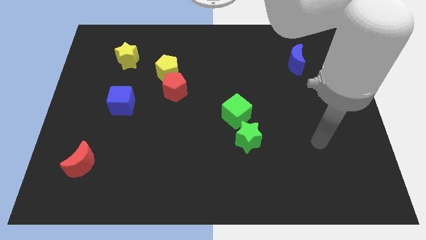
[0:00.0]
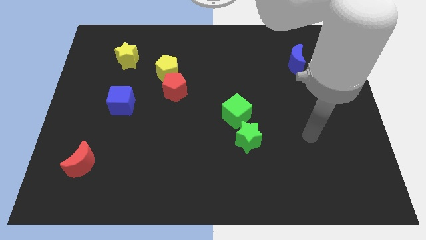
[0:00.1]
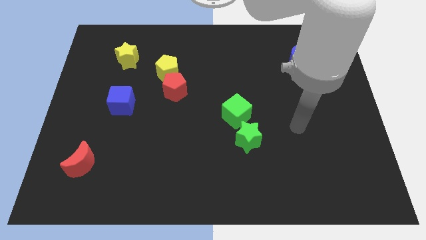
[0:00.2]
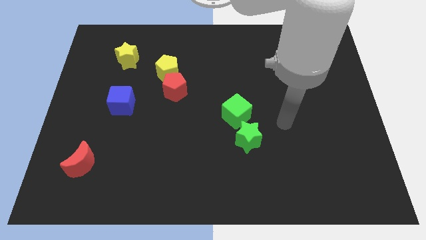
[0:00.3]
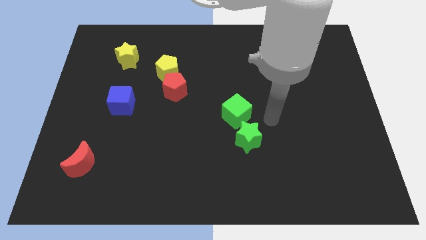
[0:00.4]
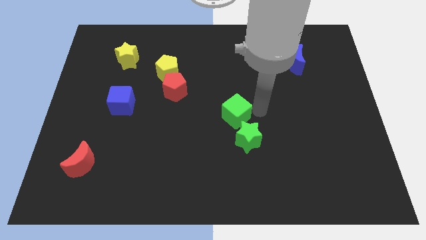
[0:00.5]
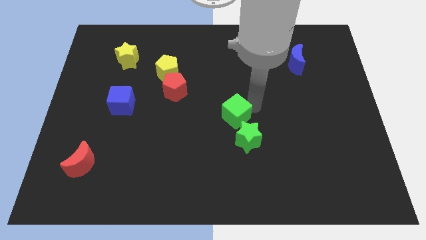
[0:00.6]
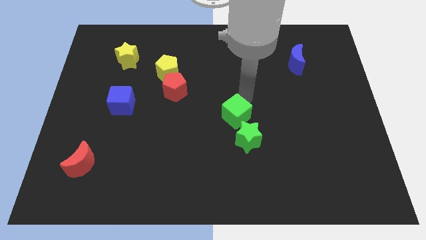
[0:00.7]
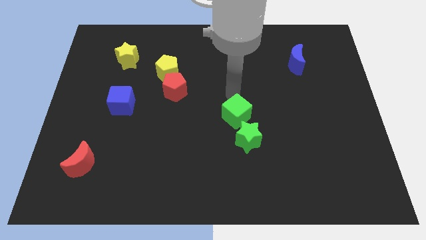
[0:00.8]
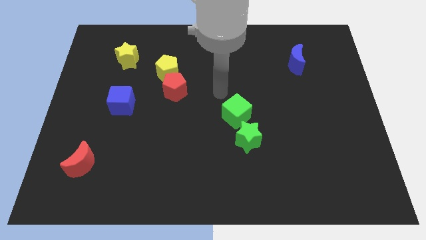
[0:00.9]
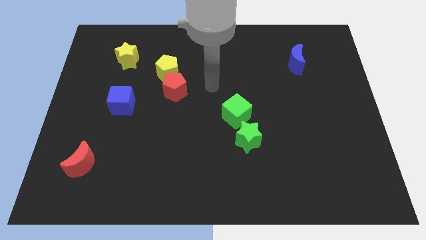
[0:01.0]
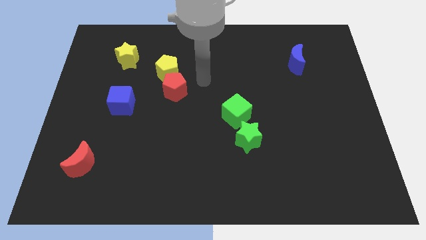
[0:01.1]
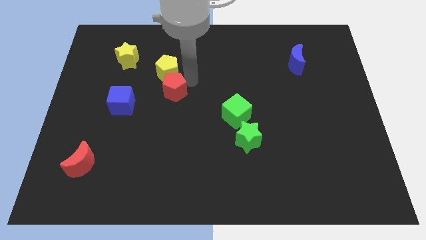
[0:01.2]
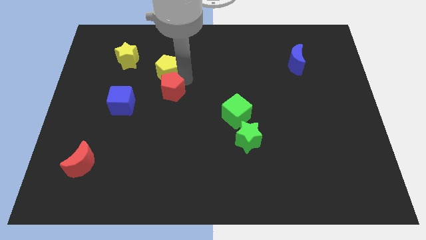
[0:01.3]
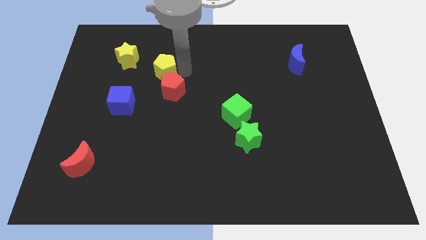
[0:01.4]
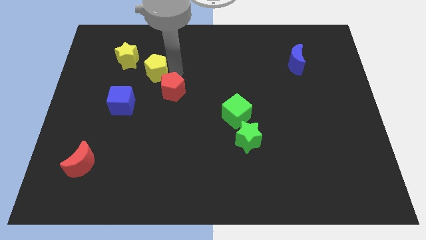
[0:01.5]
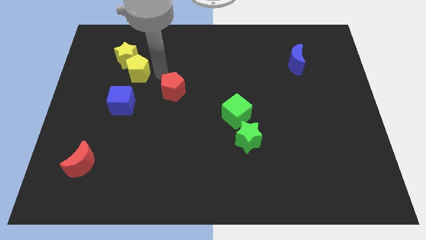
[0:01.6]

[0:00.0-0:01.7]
pull the red pentagon apart from the yellow pentagon

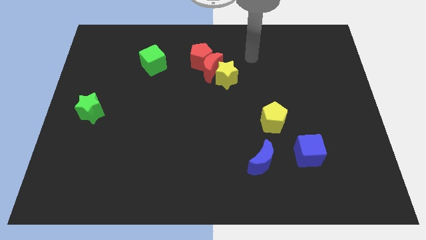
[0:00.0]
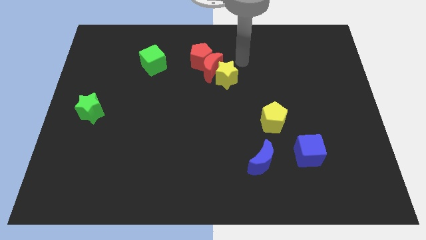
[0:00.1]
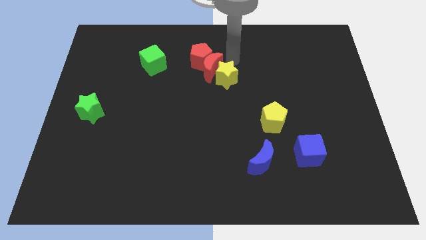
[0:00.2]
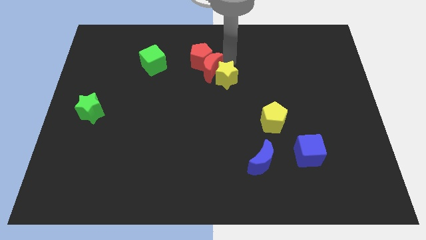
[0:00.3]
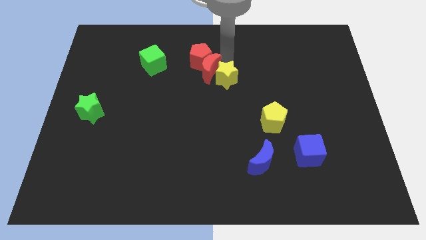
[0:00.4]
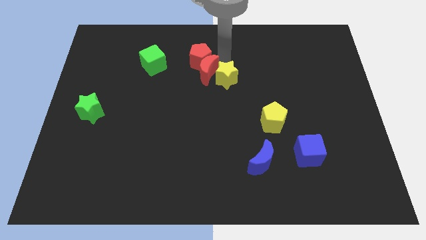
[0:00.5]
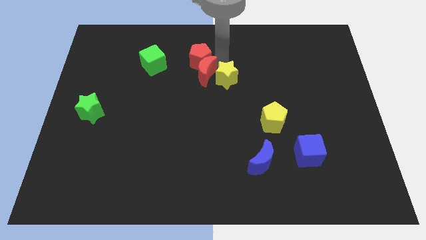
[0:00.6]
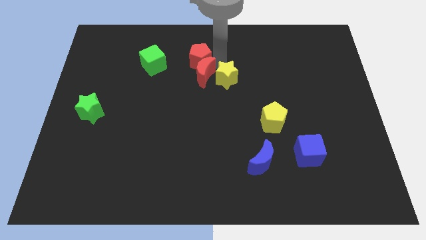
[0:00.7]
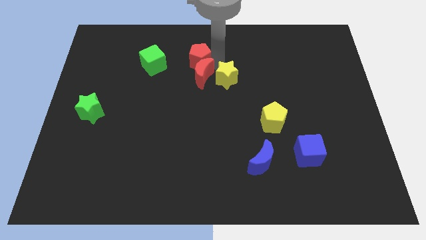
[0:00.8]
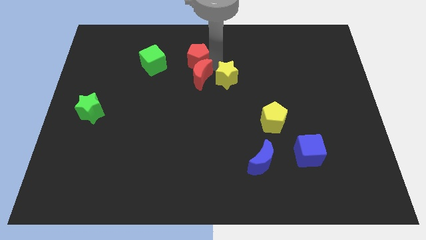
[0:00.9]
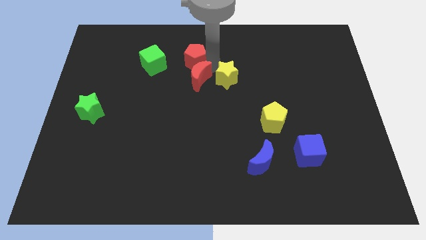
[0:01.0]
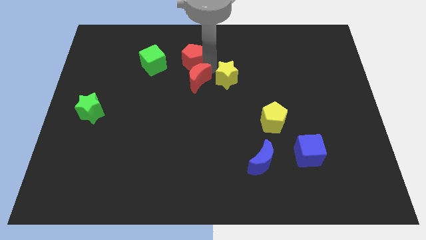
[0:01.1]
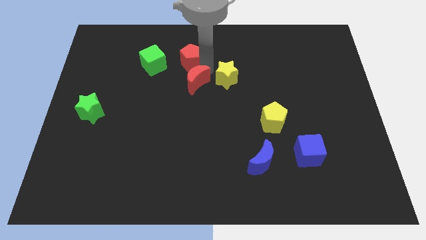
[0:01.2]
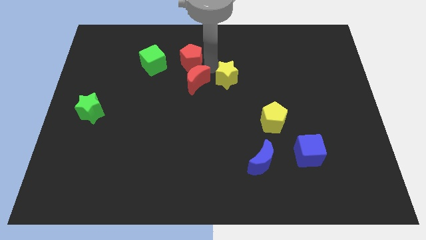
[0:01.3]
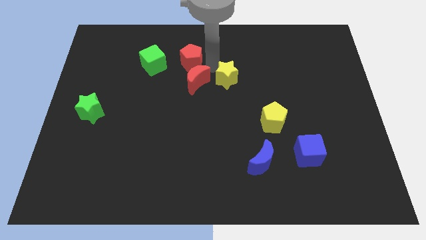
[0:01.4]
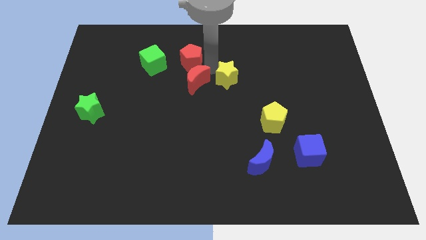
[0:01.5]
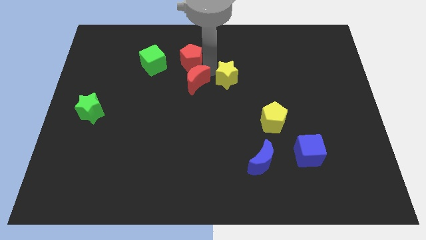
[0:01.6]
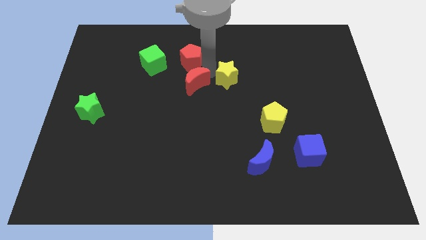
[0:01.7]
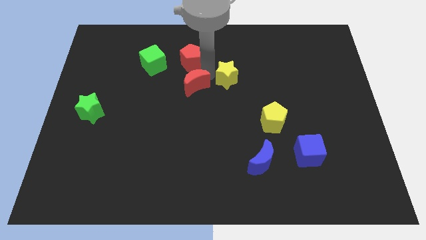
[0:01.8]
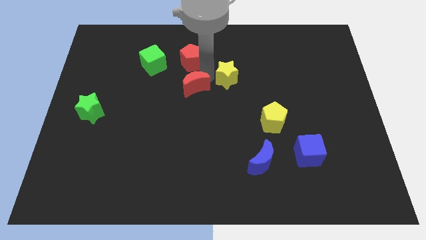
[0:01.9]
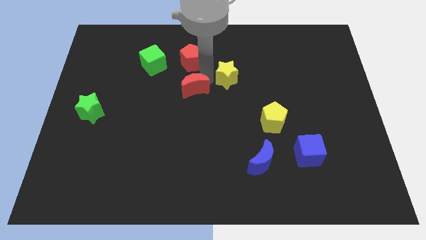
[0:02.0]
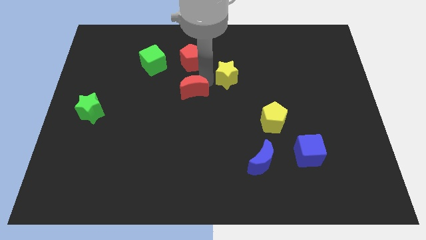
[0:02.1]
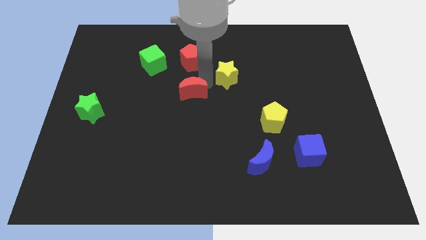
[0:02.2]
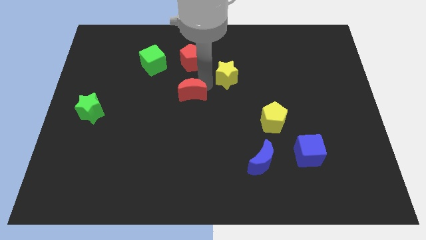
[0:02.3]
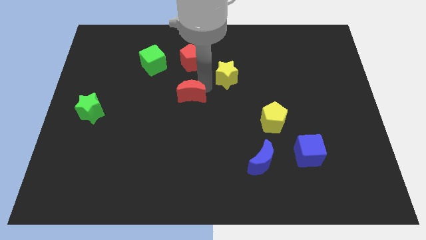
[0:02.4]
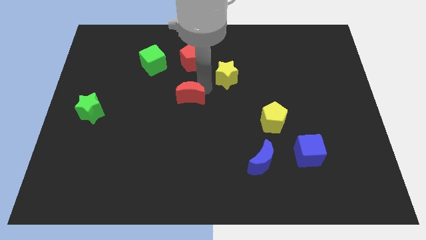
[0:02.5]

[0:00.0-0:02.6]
separate the red moon from the red pentagon and yellow star

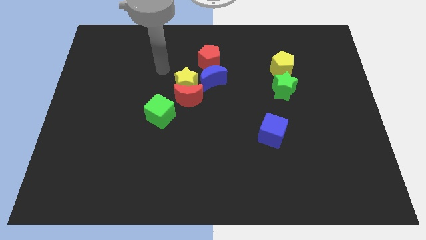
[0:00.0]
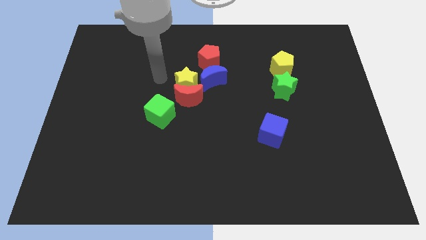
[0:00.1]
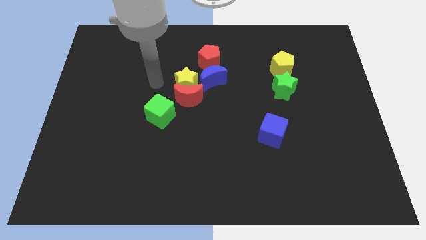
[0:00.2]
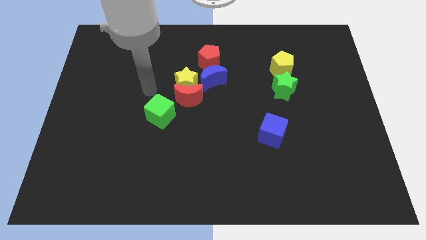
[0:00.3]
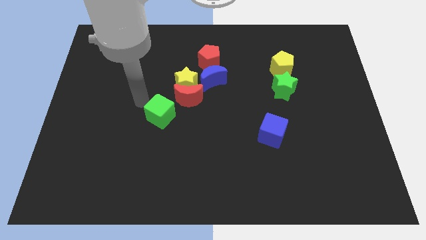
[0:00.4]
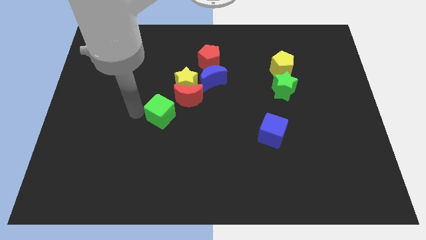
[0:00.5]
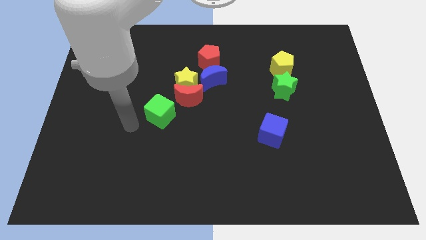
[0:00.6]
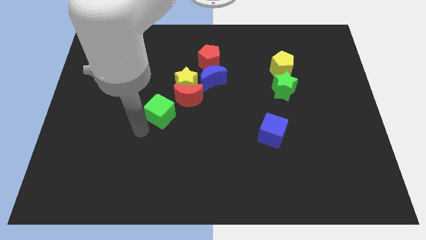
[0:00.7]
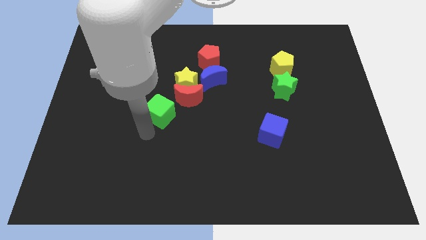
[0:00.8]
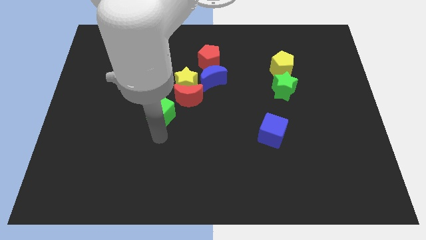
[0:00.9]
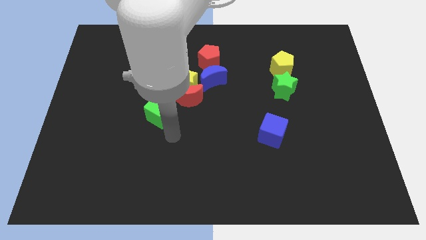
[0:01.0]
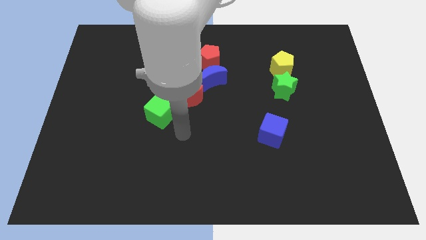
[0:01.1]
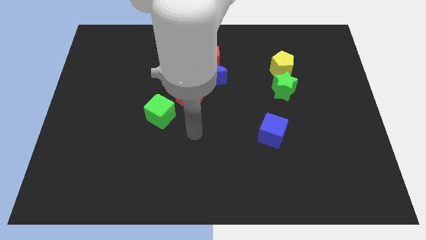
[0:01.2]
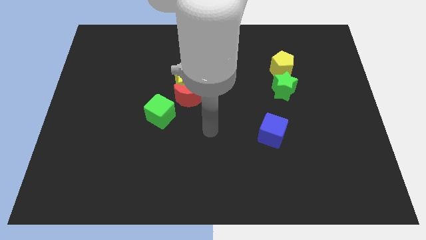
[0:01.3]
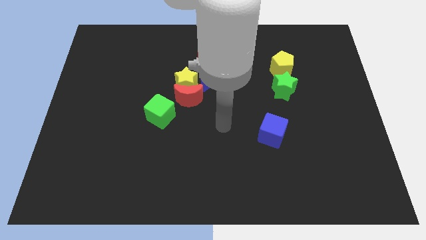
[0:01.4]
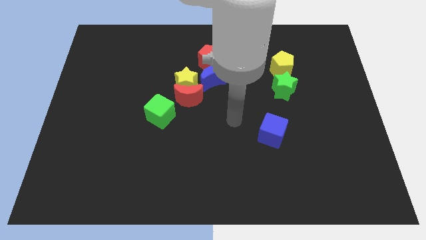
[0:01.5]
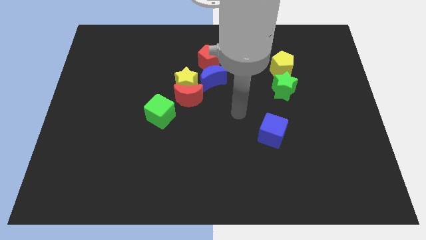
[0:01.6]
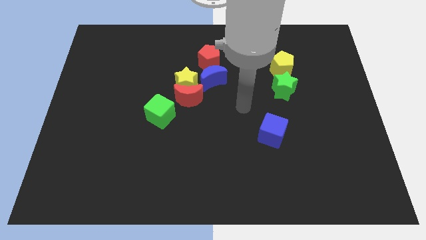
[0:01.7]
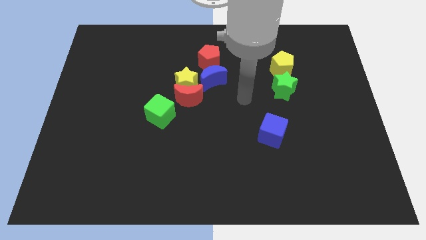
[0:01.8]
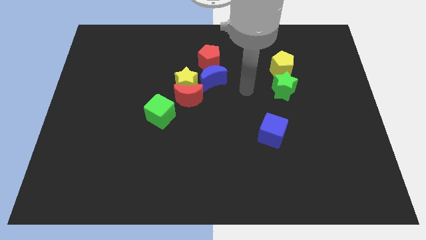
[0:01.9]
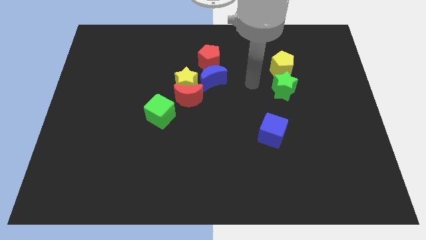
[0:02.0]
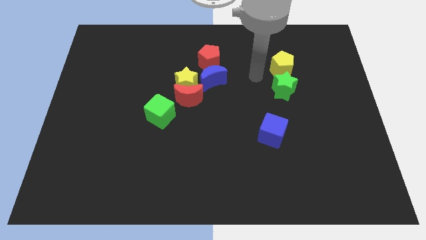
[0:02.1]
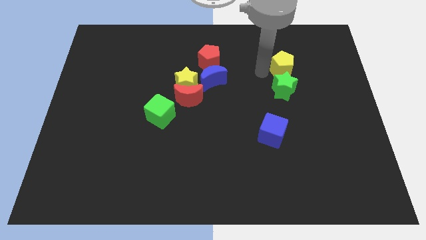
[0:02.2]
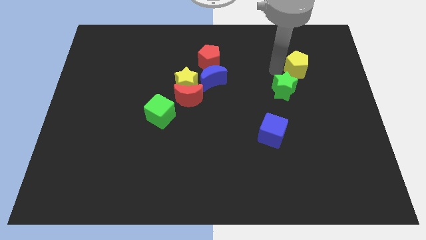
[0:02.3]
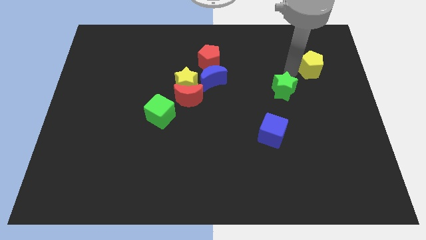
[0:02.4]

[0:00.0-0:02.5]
move the green star away from the yellow pentagon

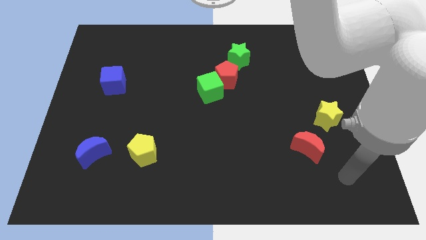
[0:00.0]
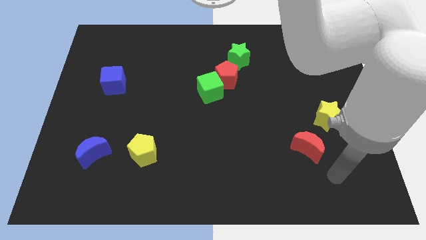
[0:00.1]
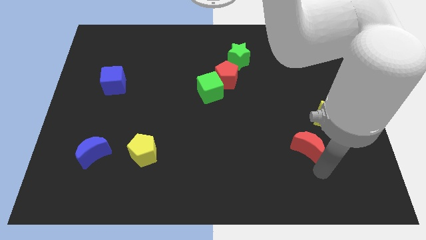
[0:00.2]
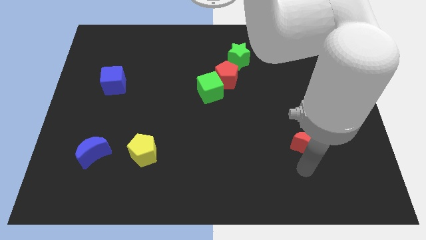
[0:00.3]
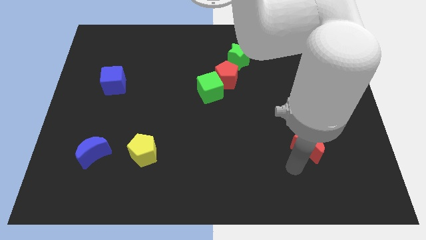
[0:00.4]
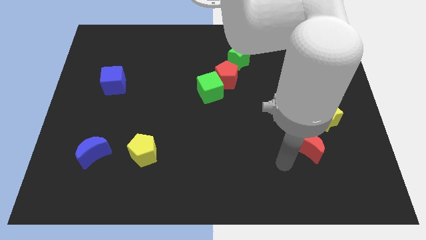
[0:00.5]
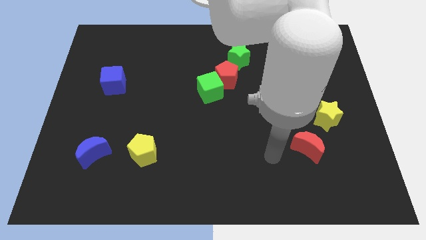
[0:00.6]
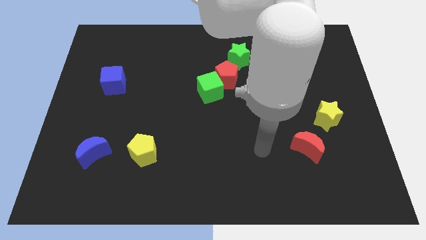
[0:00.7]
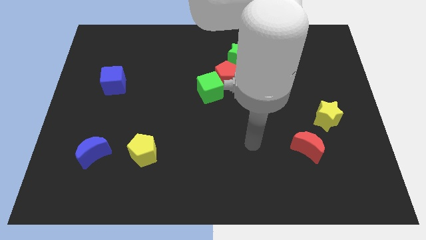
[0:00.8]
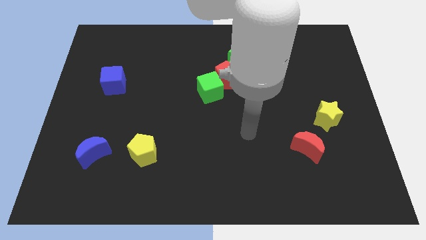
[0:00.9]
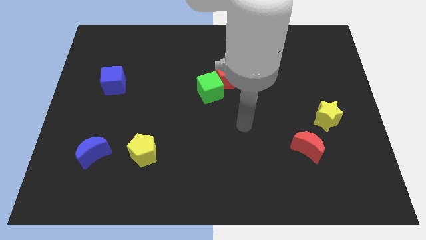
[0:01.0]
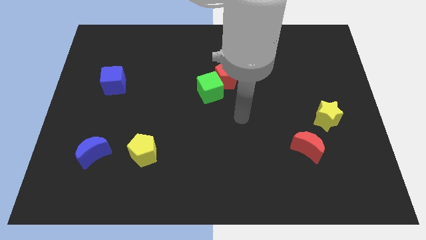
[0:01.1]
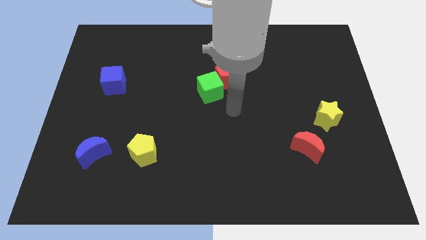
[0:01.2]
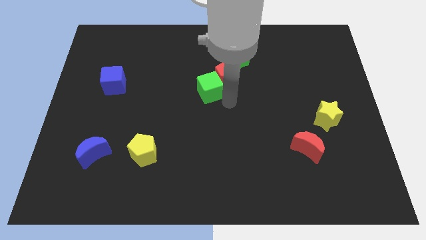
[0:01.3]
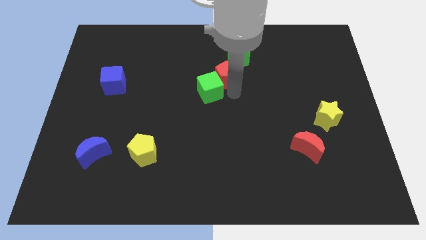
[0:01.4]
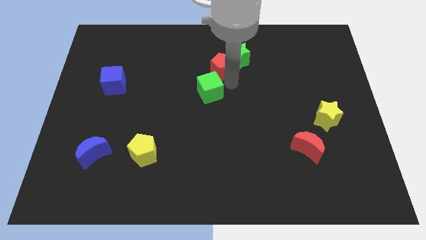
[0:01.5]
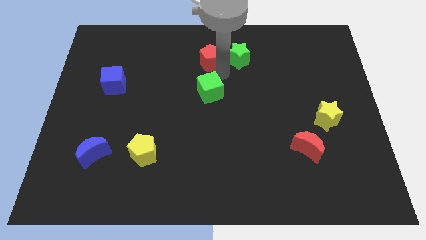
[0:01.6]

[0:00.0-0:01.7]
move the green cube away from the red pentagon

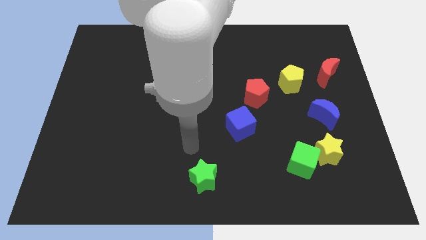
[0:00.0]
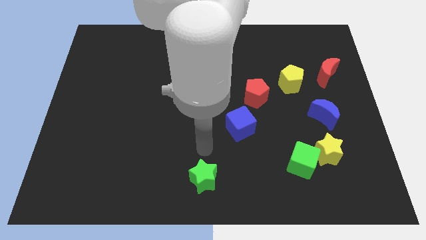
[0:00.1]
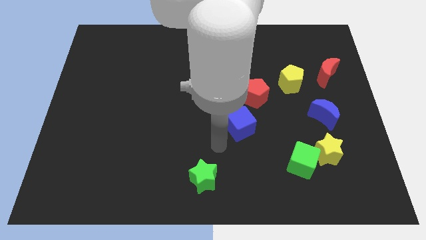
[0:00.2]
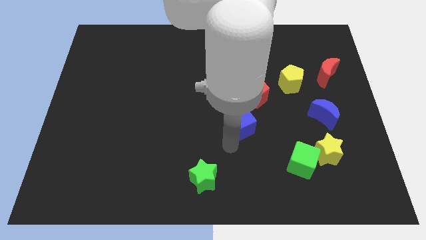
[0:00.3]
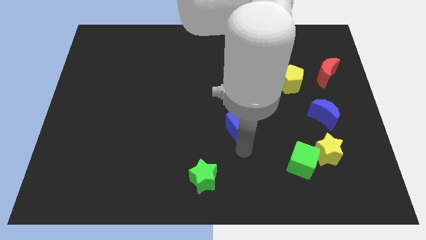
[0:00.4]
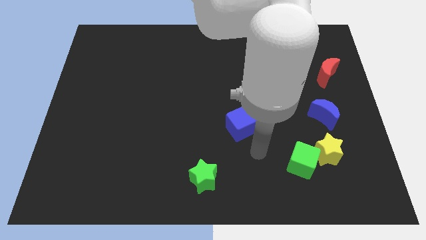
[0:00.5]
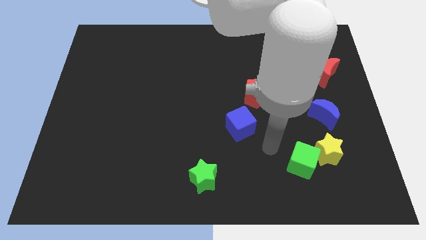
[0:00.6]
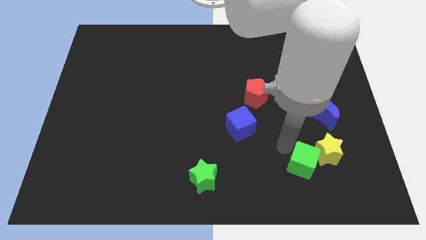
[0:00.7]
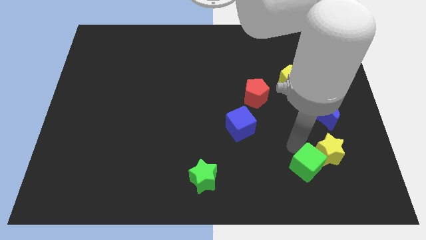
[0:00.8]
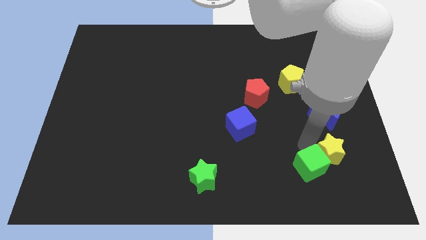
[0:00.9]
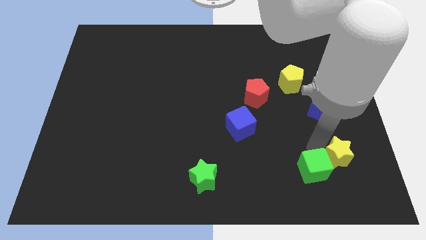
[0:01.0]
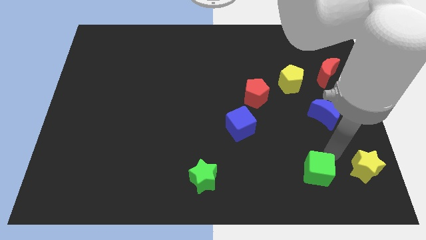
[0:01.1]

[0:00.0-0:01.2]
move the green cube away from the yellow star
